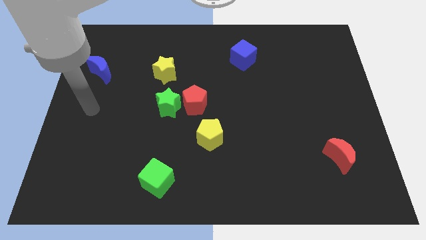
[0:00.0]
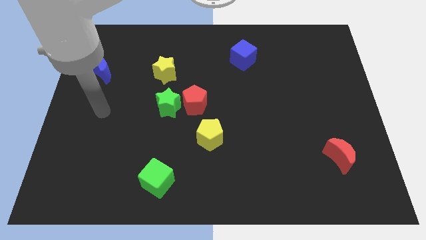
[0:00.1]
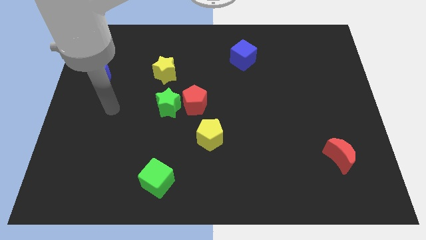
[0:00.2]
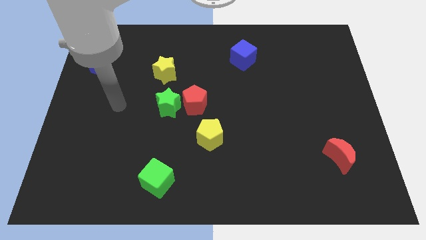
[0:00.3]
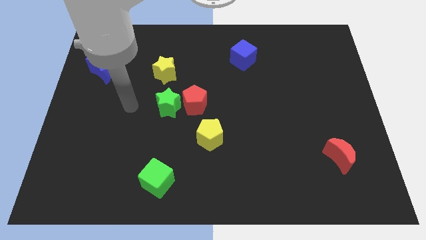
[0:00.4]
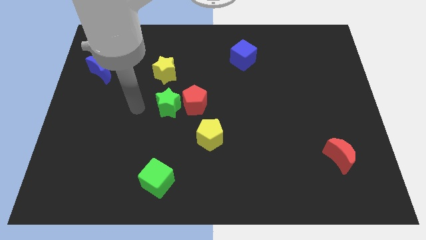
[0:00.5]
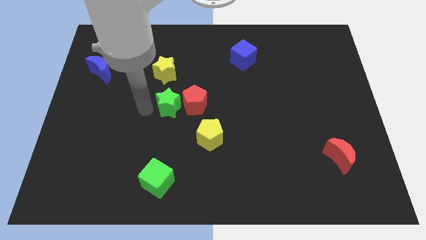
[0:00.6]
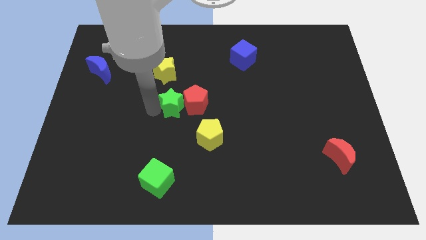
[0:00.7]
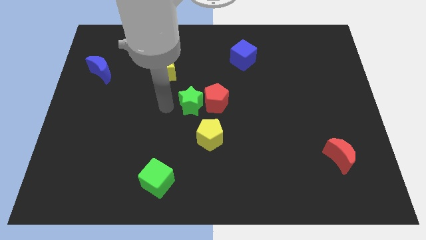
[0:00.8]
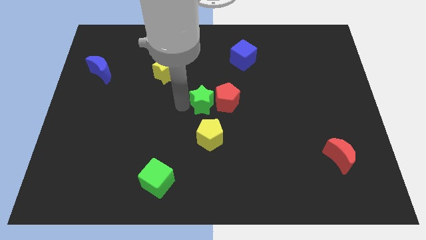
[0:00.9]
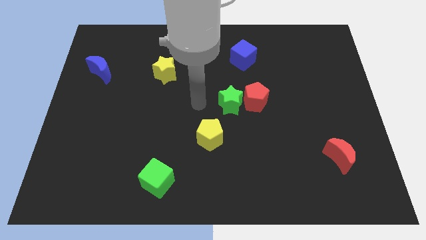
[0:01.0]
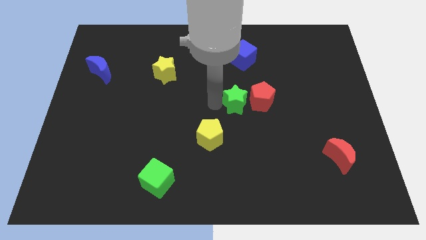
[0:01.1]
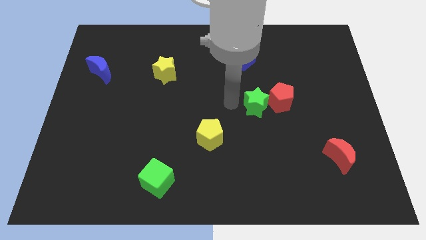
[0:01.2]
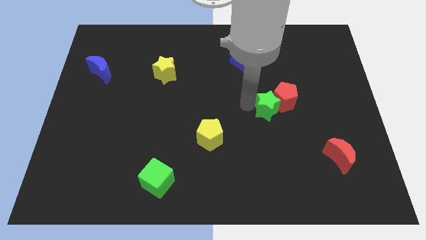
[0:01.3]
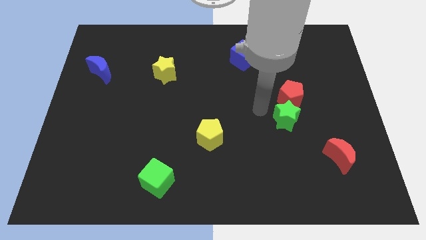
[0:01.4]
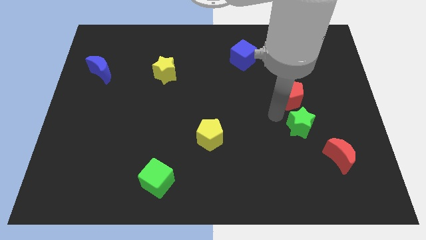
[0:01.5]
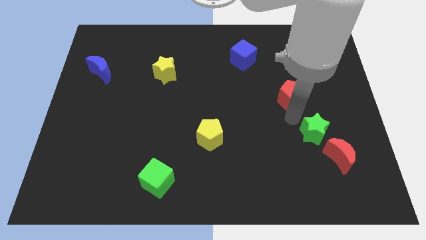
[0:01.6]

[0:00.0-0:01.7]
move the red pentagon away from the green star

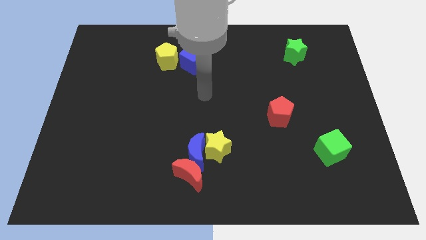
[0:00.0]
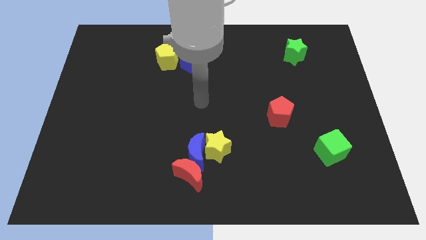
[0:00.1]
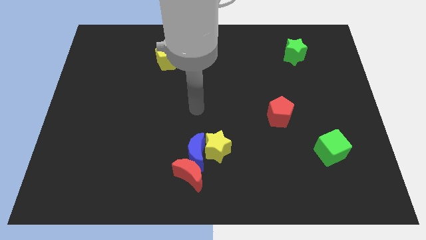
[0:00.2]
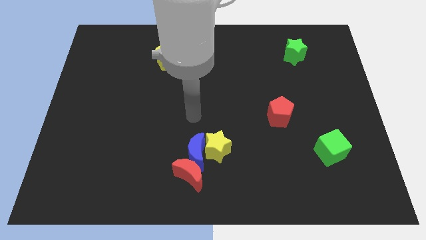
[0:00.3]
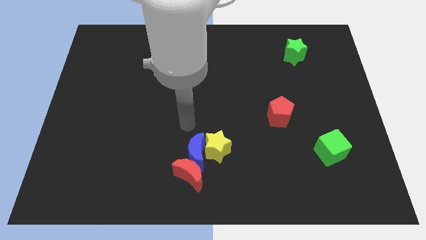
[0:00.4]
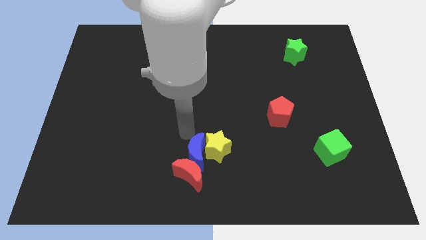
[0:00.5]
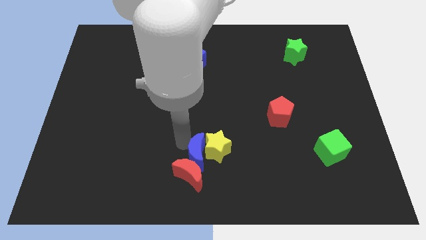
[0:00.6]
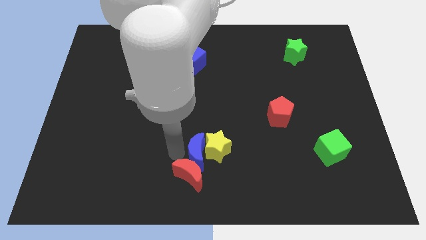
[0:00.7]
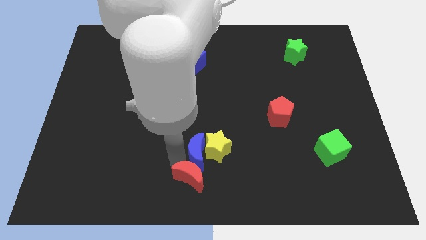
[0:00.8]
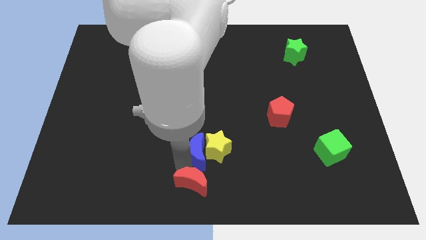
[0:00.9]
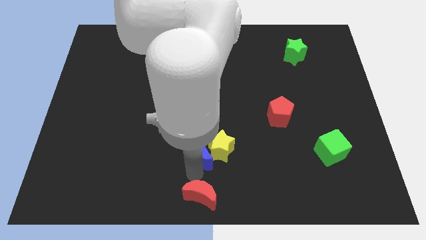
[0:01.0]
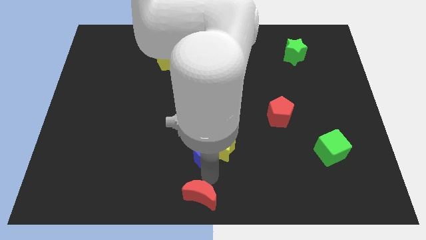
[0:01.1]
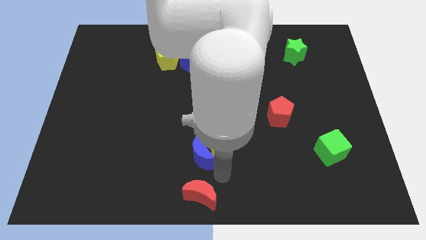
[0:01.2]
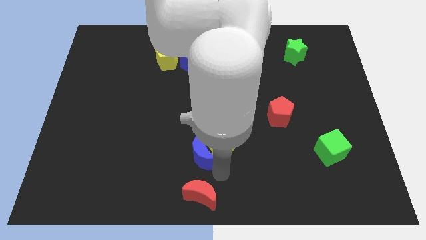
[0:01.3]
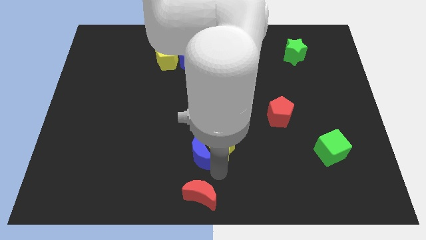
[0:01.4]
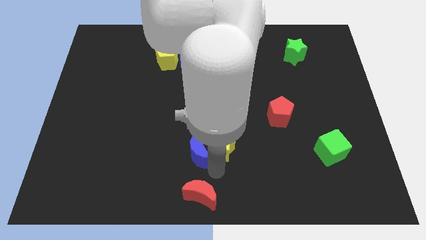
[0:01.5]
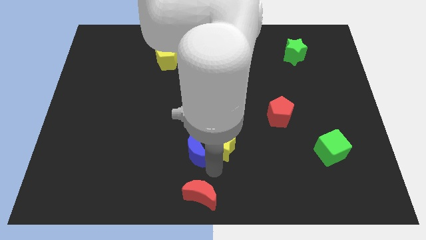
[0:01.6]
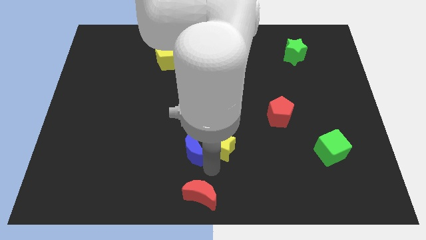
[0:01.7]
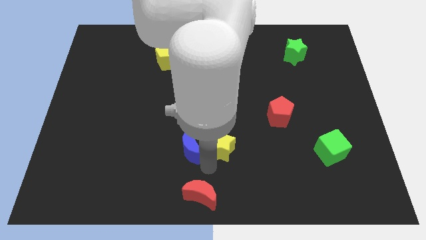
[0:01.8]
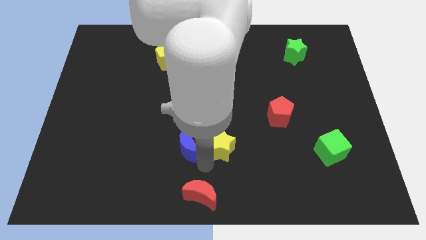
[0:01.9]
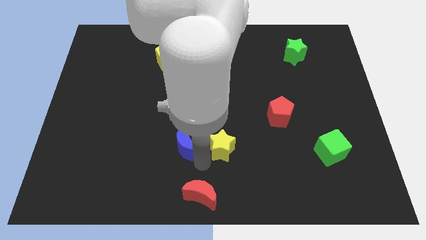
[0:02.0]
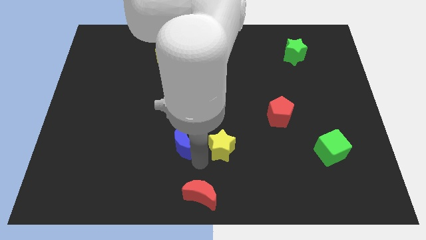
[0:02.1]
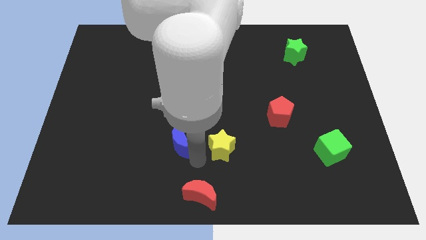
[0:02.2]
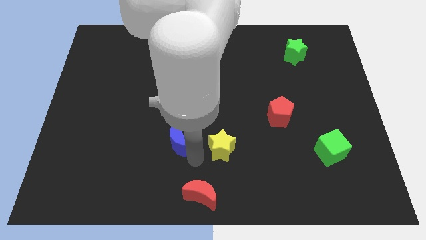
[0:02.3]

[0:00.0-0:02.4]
move the blue moon away from the yellow star and red moon

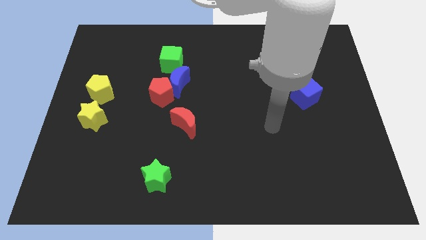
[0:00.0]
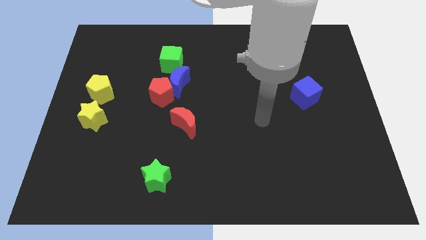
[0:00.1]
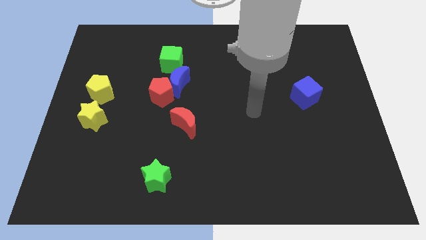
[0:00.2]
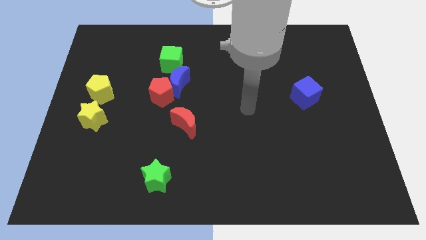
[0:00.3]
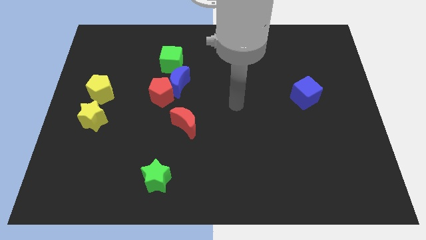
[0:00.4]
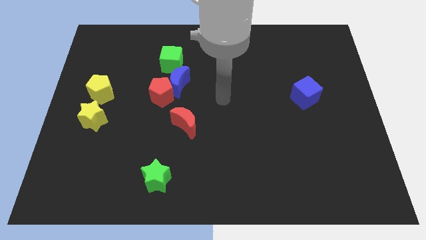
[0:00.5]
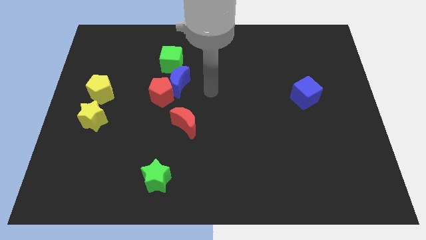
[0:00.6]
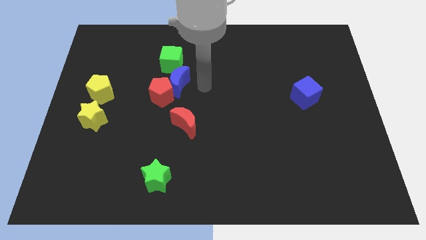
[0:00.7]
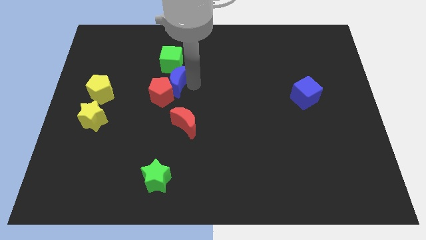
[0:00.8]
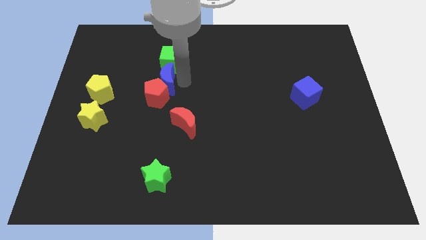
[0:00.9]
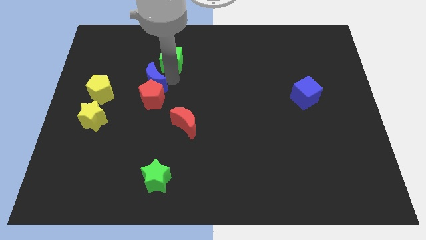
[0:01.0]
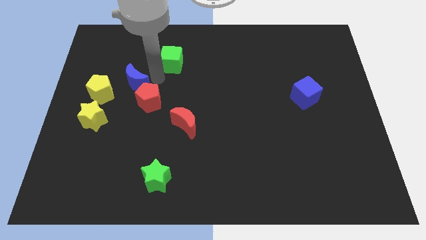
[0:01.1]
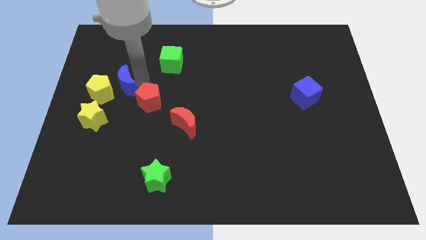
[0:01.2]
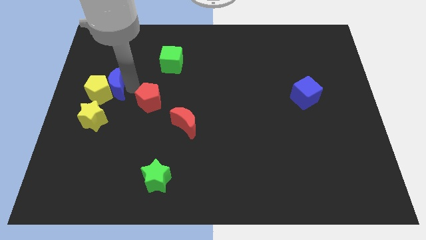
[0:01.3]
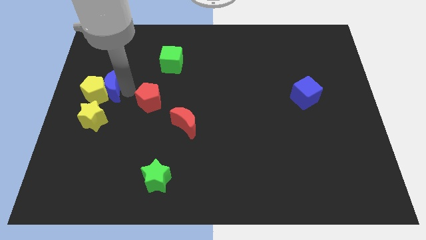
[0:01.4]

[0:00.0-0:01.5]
separate the red pentagon from the blue moon

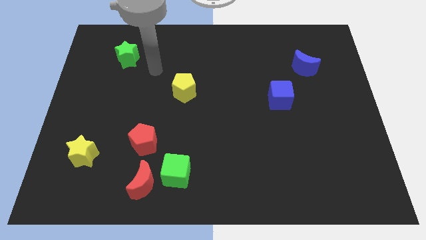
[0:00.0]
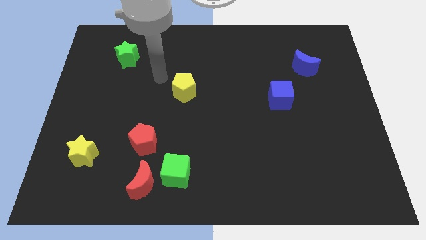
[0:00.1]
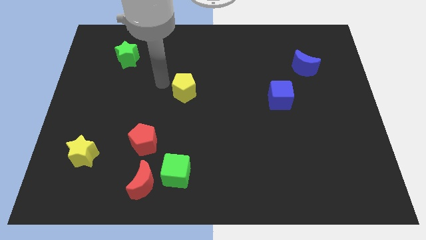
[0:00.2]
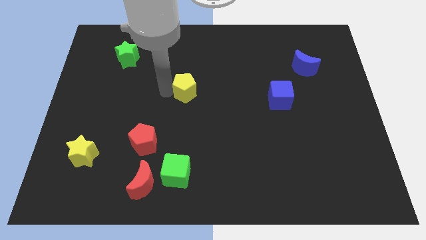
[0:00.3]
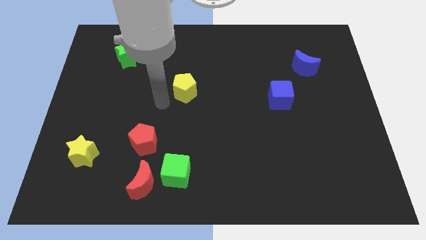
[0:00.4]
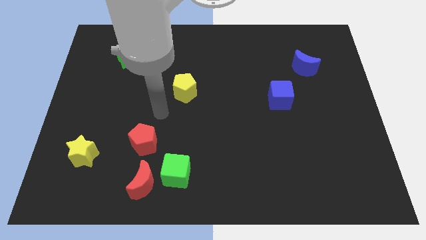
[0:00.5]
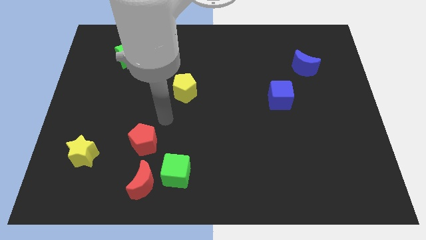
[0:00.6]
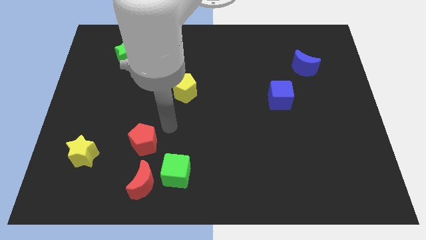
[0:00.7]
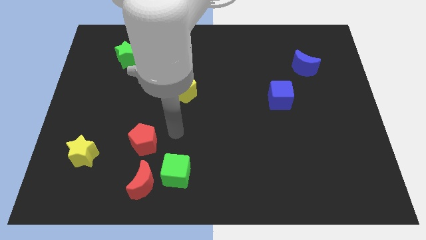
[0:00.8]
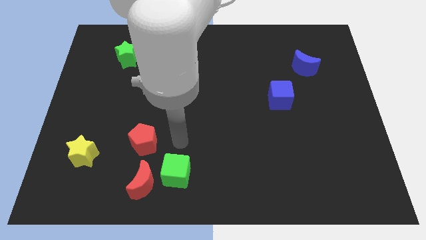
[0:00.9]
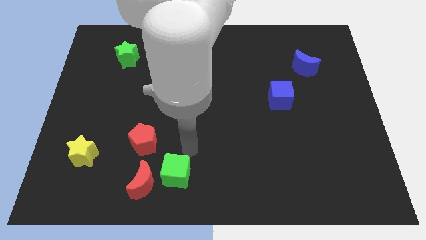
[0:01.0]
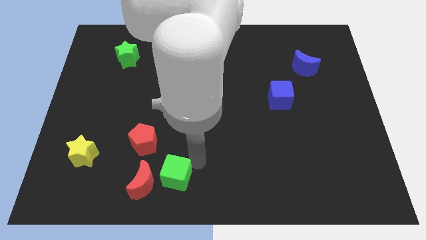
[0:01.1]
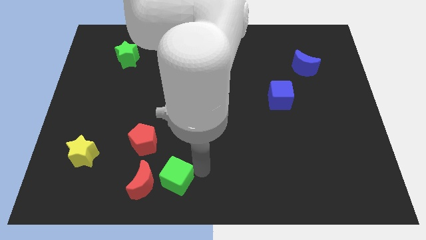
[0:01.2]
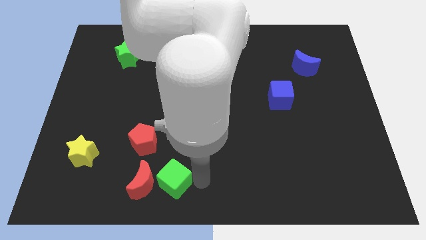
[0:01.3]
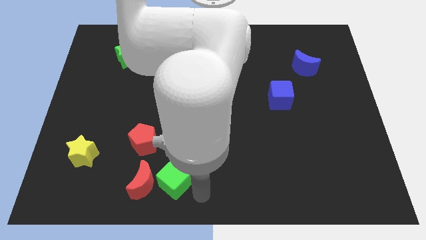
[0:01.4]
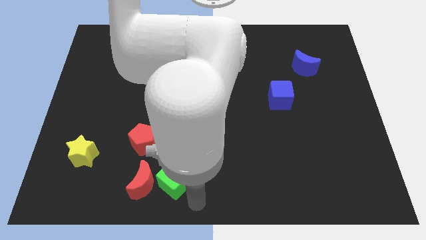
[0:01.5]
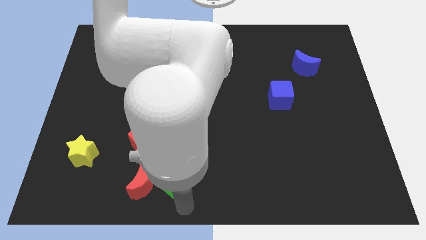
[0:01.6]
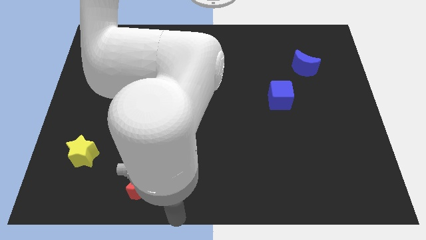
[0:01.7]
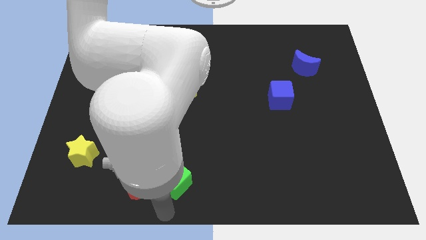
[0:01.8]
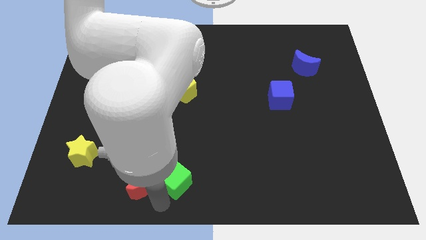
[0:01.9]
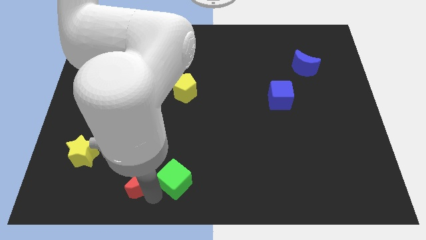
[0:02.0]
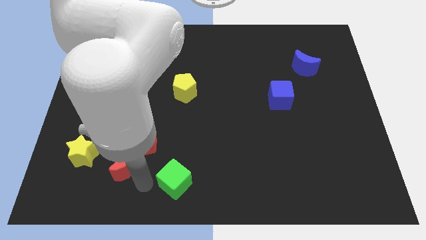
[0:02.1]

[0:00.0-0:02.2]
separate the green cube from the red moon

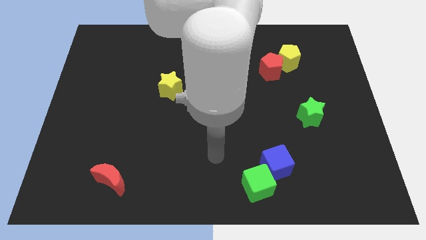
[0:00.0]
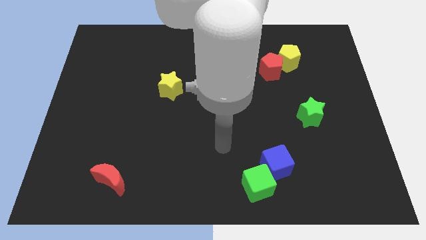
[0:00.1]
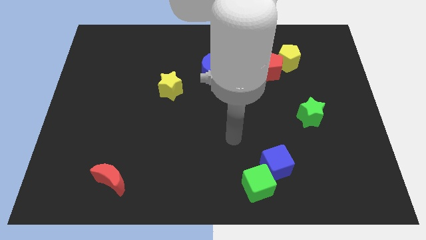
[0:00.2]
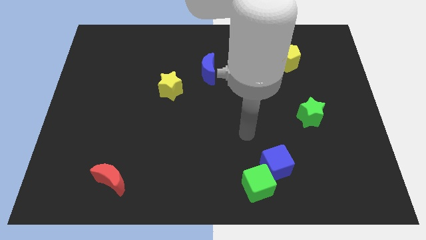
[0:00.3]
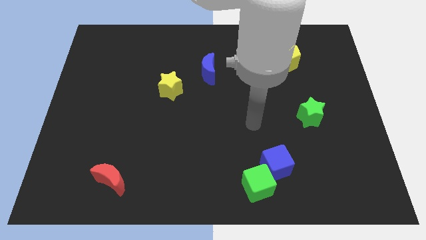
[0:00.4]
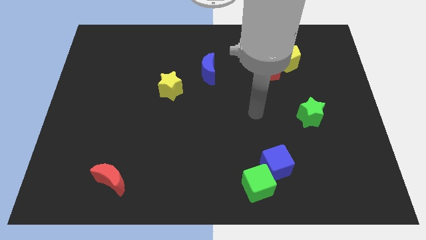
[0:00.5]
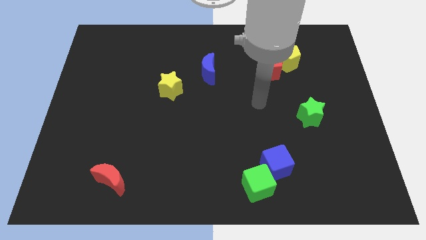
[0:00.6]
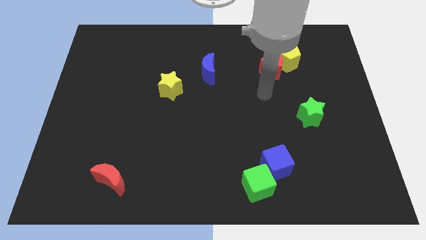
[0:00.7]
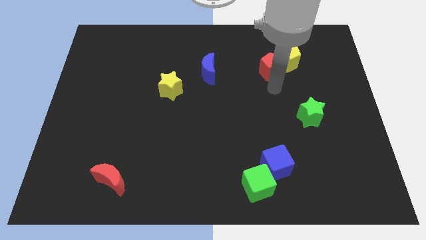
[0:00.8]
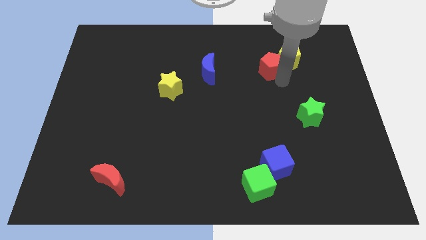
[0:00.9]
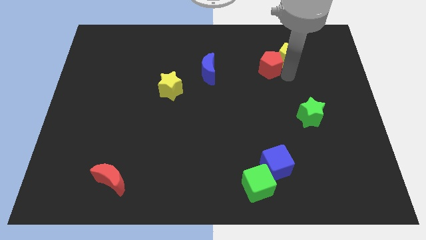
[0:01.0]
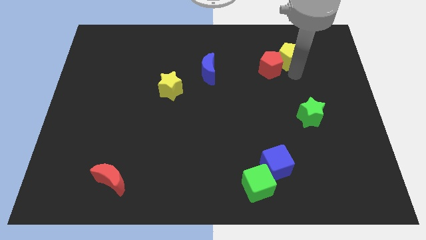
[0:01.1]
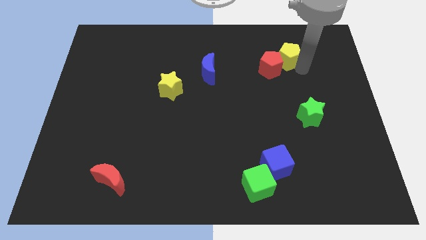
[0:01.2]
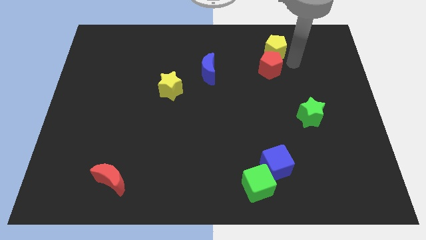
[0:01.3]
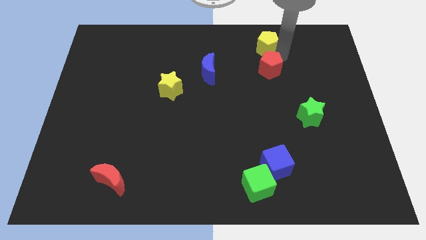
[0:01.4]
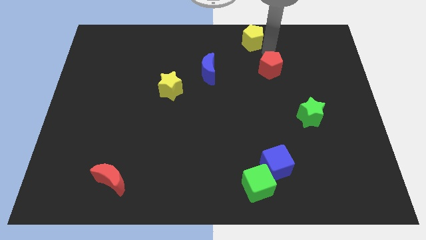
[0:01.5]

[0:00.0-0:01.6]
move the red pentagon away from the yellow pentagon
